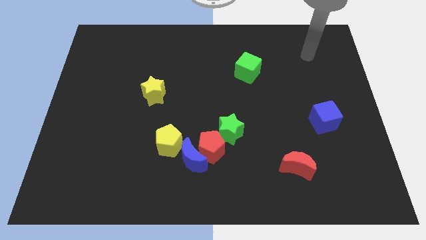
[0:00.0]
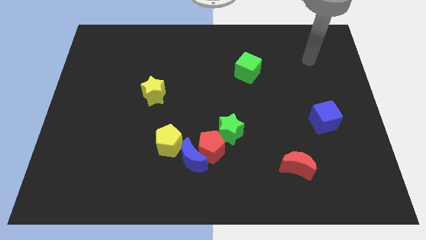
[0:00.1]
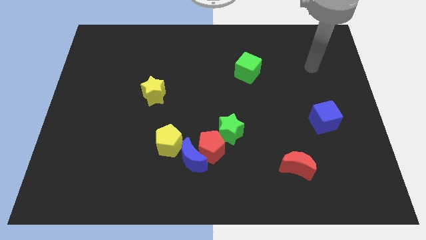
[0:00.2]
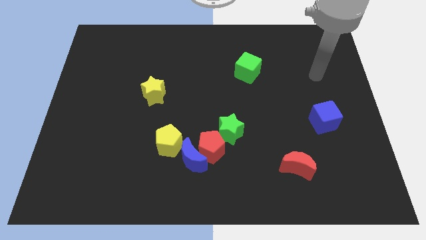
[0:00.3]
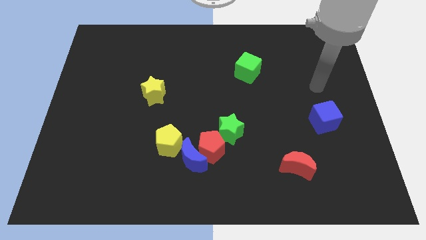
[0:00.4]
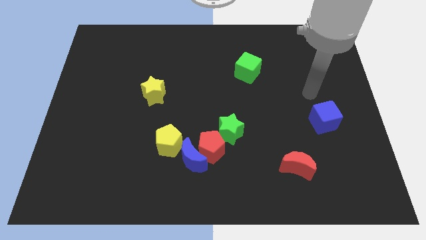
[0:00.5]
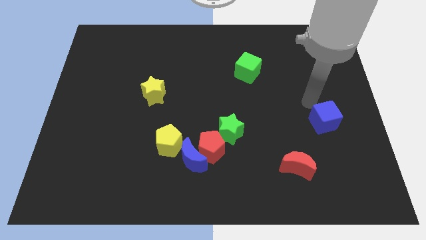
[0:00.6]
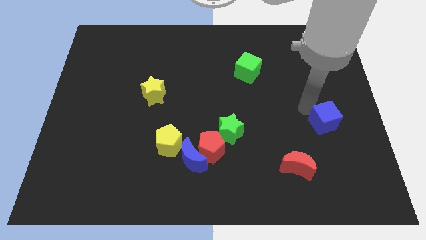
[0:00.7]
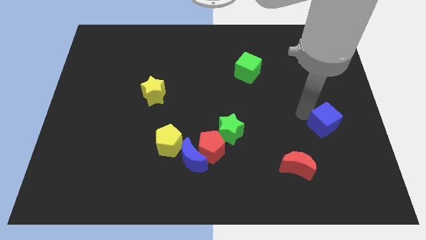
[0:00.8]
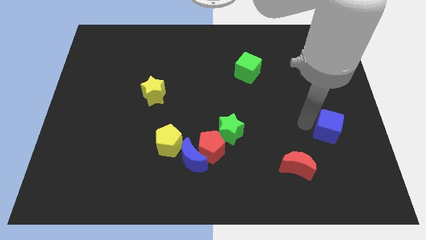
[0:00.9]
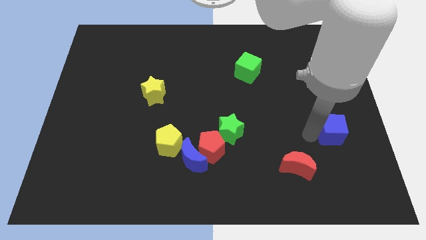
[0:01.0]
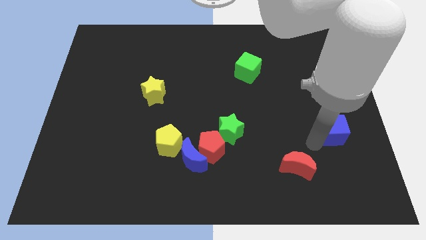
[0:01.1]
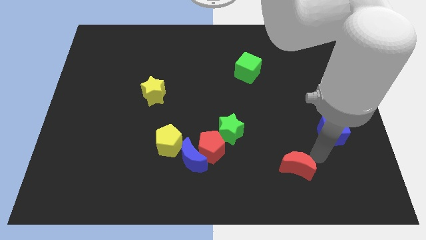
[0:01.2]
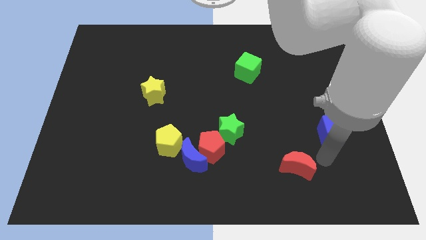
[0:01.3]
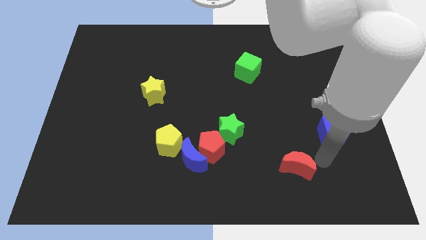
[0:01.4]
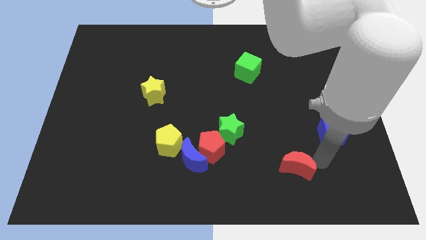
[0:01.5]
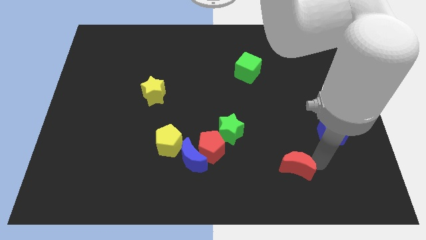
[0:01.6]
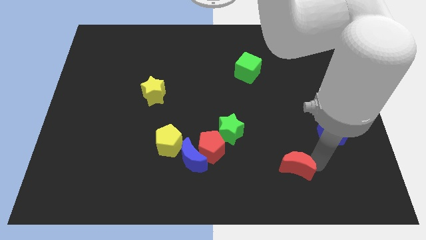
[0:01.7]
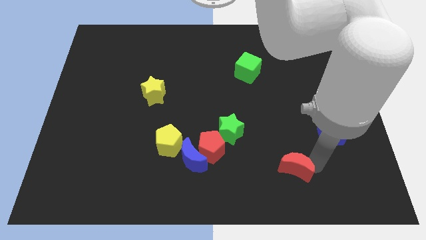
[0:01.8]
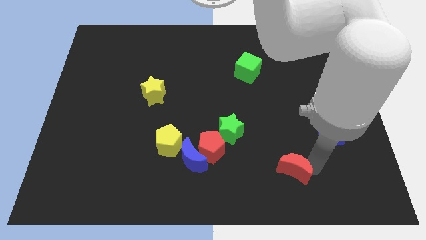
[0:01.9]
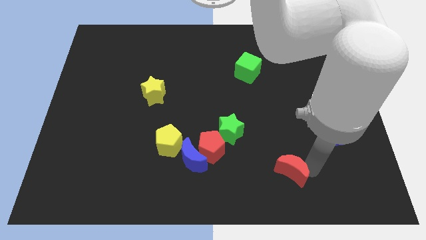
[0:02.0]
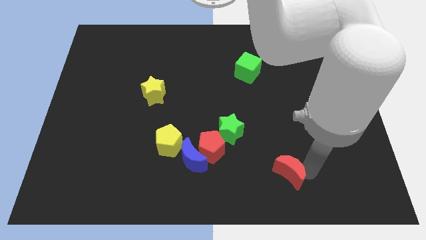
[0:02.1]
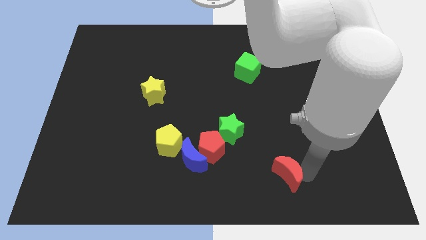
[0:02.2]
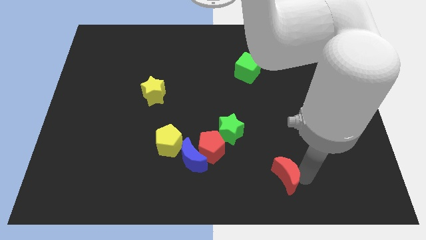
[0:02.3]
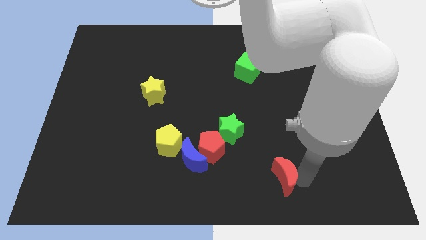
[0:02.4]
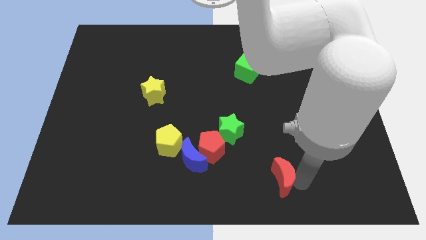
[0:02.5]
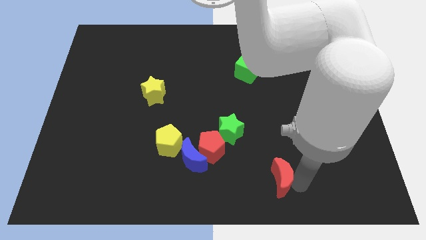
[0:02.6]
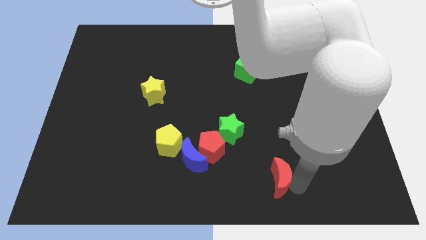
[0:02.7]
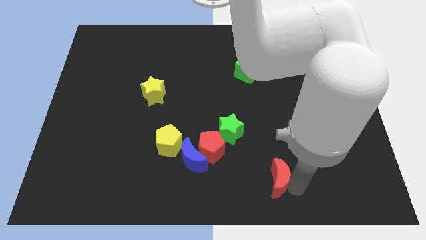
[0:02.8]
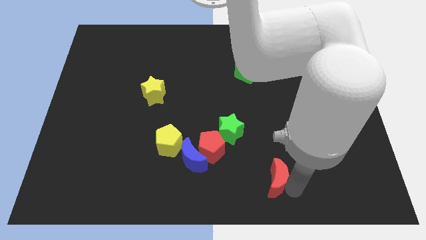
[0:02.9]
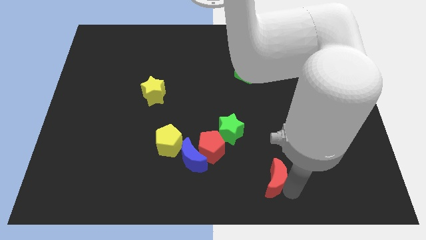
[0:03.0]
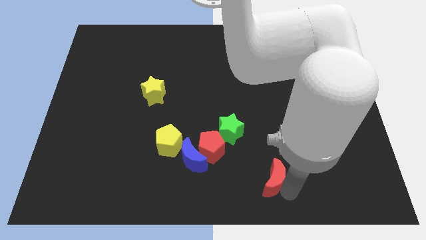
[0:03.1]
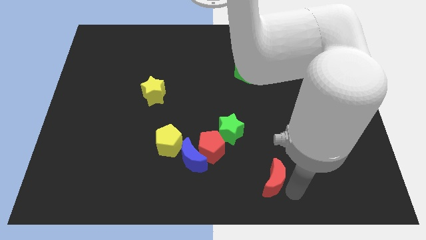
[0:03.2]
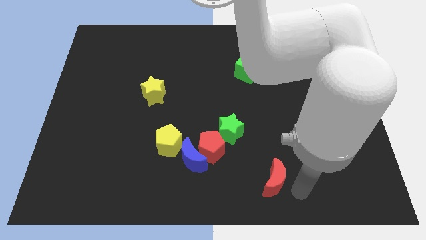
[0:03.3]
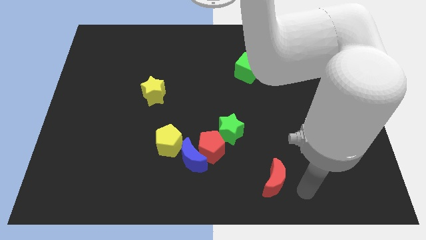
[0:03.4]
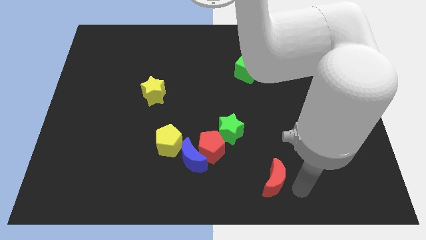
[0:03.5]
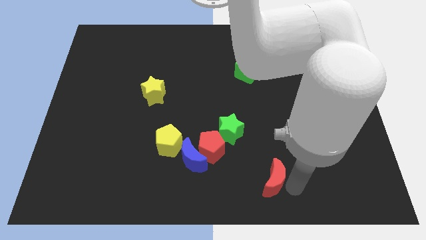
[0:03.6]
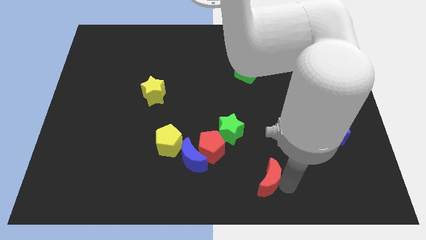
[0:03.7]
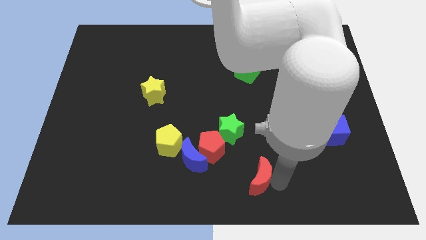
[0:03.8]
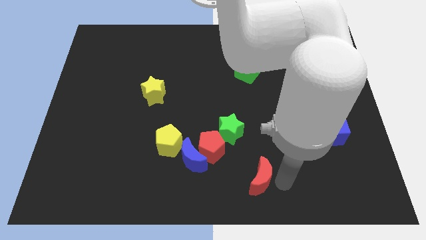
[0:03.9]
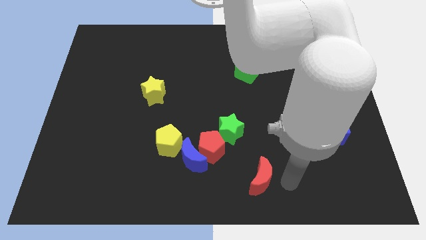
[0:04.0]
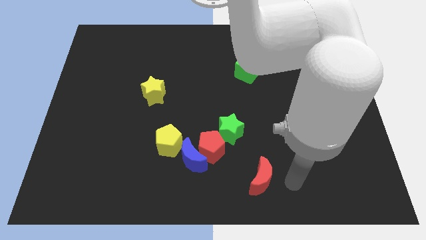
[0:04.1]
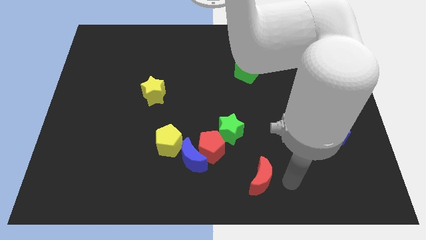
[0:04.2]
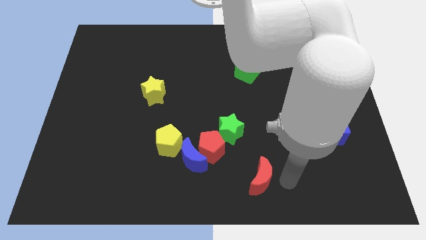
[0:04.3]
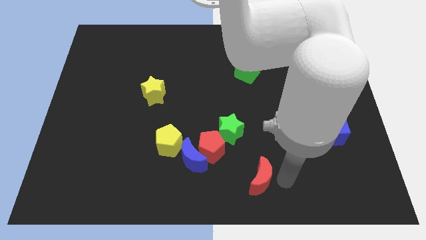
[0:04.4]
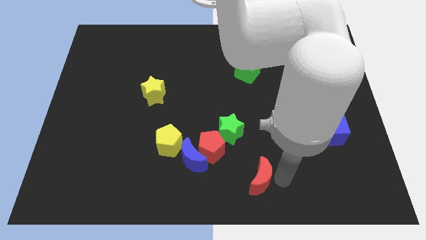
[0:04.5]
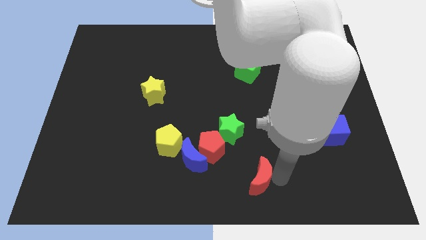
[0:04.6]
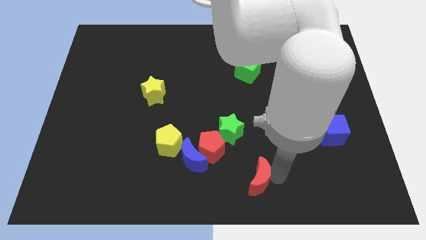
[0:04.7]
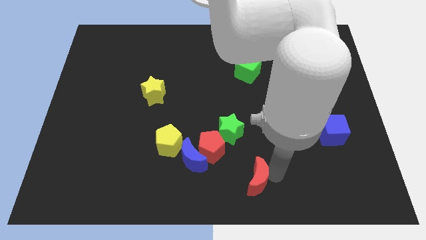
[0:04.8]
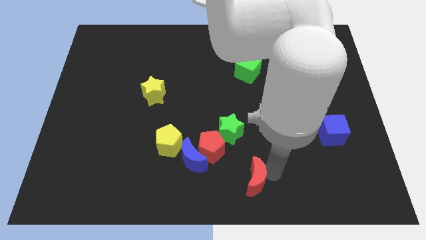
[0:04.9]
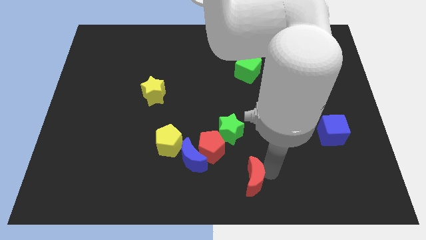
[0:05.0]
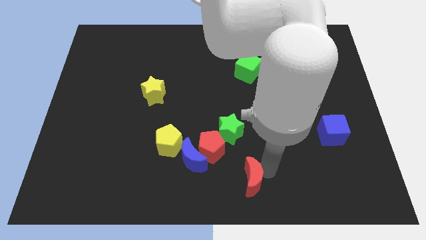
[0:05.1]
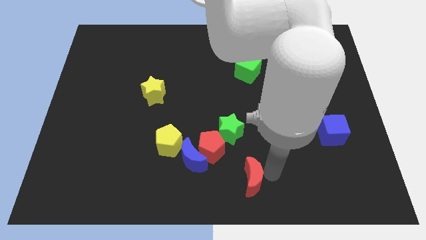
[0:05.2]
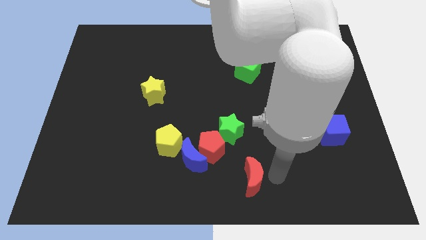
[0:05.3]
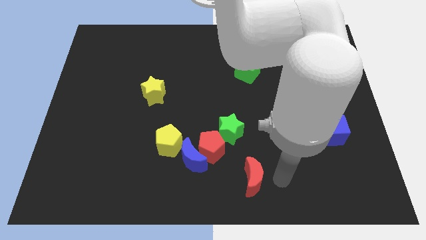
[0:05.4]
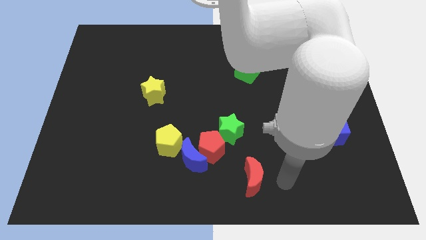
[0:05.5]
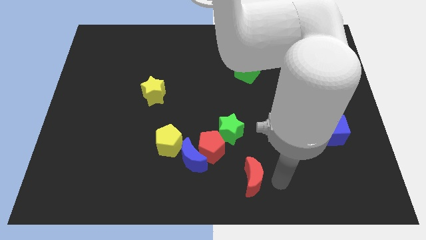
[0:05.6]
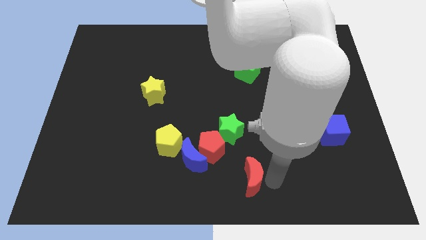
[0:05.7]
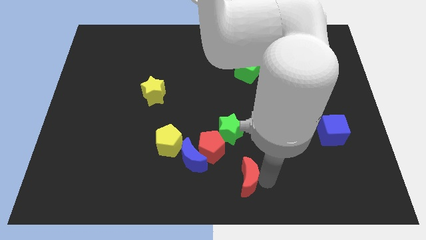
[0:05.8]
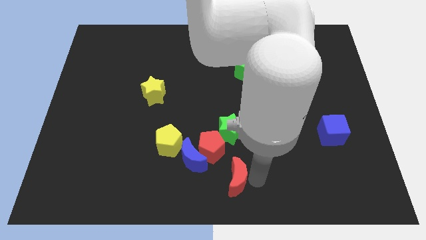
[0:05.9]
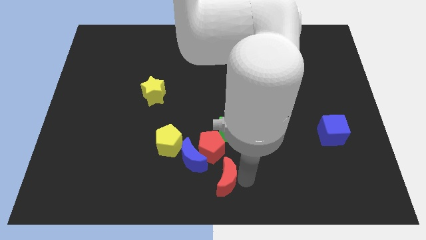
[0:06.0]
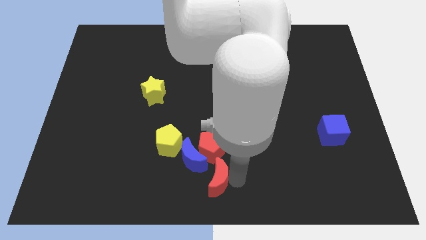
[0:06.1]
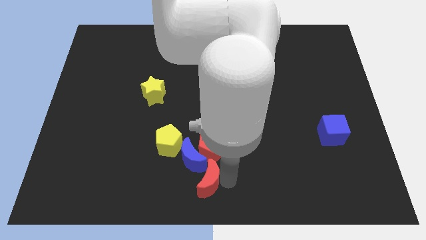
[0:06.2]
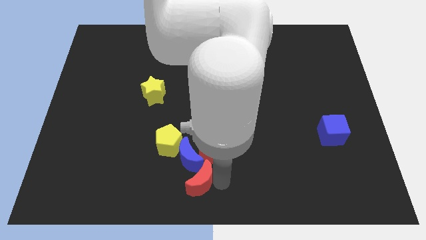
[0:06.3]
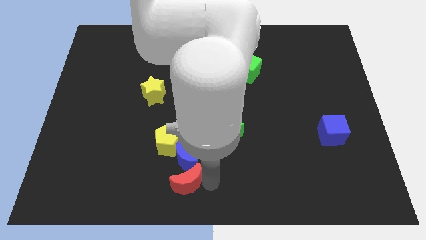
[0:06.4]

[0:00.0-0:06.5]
move the red moon to the bottom left of the blue moon

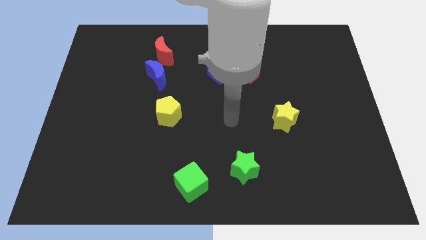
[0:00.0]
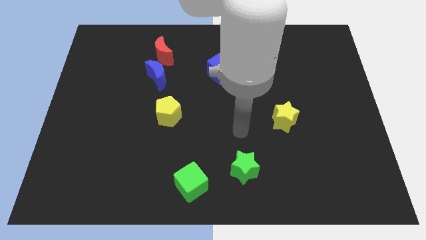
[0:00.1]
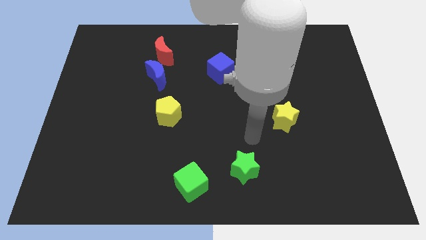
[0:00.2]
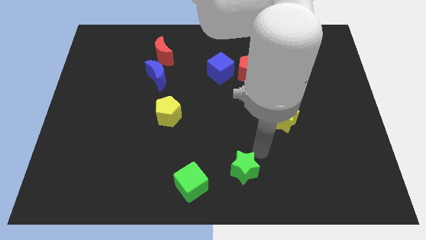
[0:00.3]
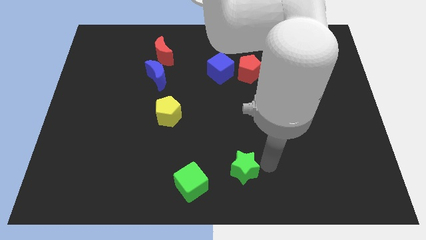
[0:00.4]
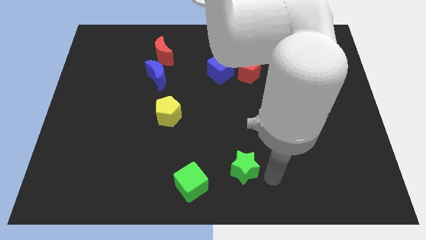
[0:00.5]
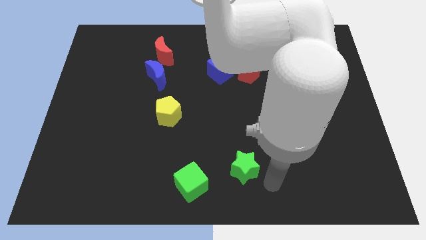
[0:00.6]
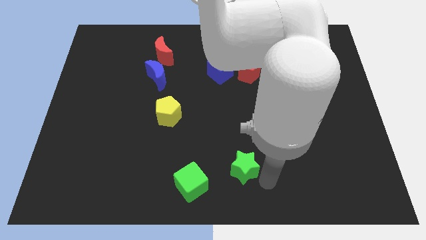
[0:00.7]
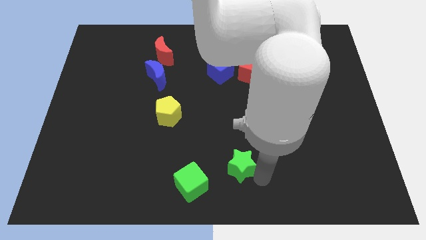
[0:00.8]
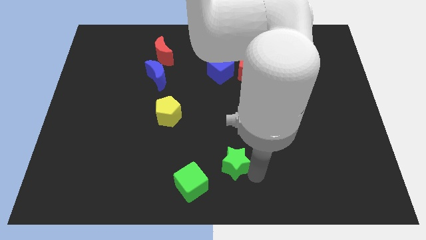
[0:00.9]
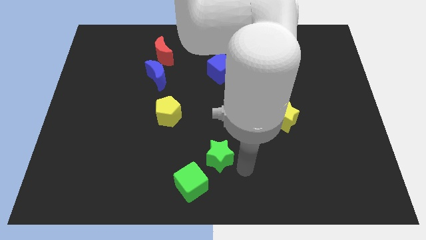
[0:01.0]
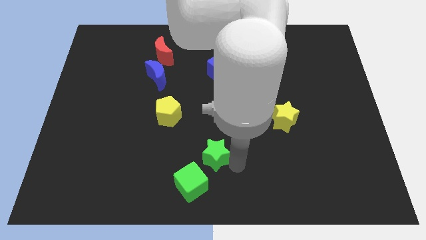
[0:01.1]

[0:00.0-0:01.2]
slide the green star above the green cube
